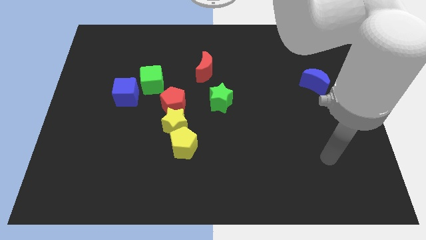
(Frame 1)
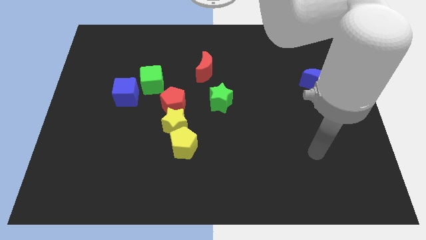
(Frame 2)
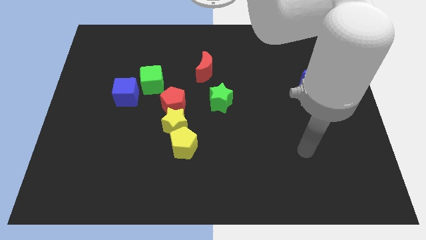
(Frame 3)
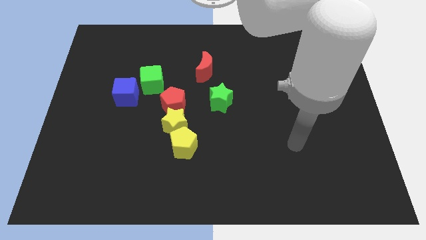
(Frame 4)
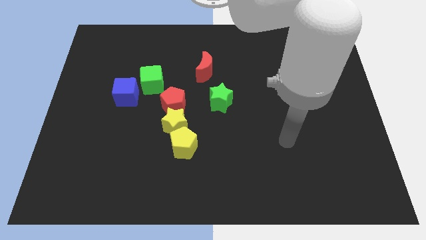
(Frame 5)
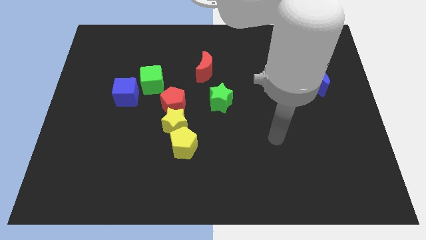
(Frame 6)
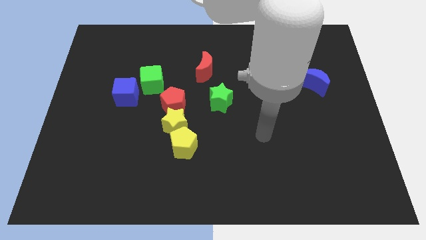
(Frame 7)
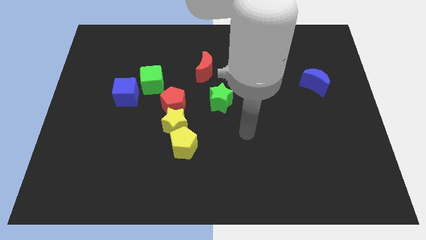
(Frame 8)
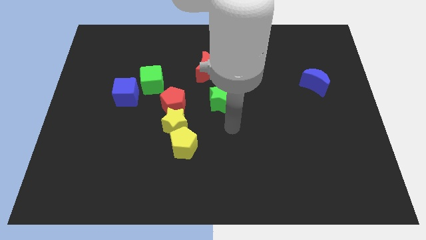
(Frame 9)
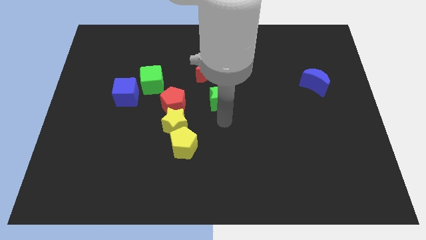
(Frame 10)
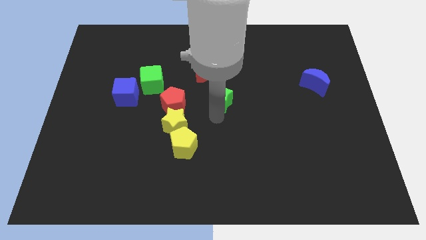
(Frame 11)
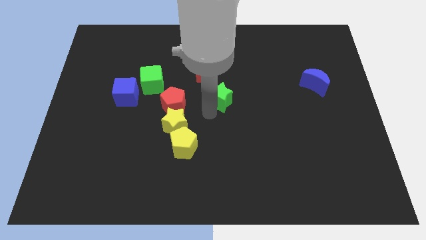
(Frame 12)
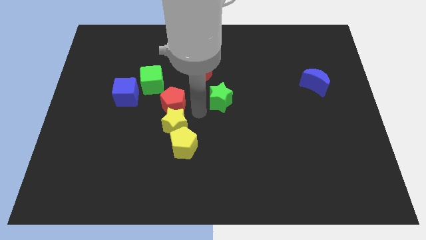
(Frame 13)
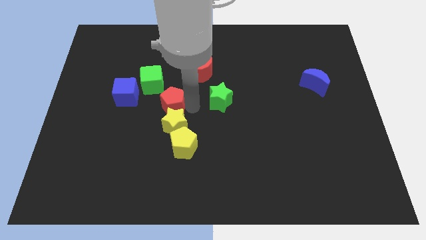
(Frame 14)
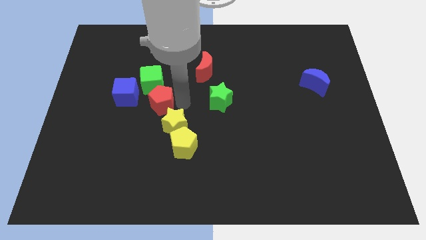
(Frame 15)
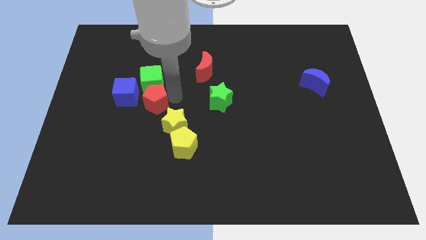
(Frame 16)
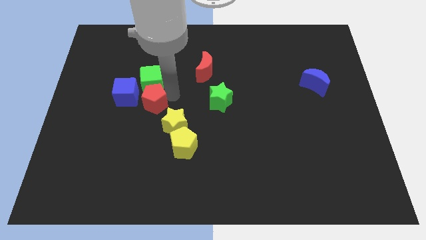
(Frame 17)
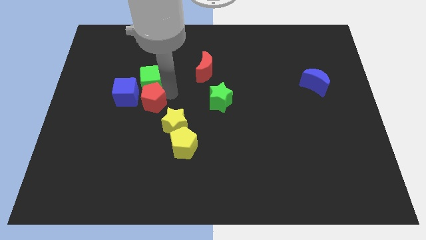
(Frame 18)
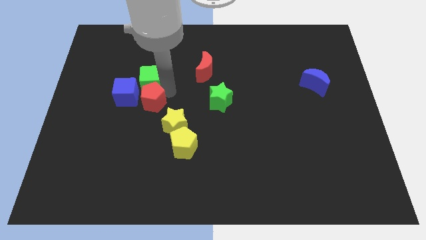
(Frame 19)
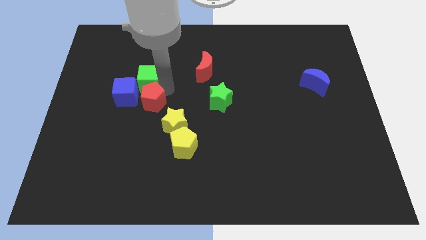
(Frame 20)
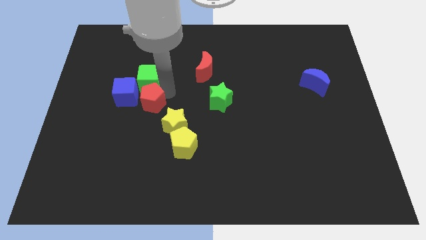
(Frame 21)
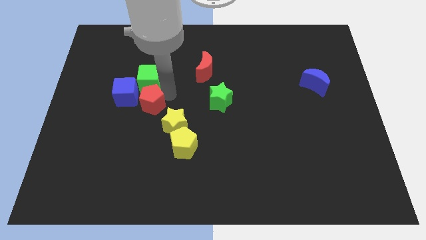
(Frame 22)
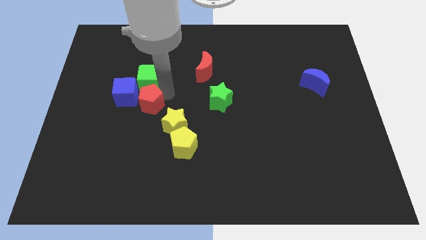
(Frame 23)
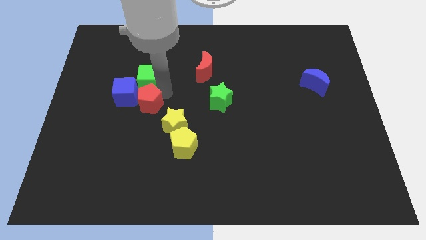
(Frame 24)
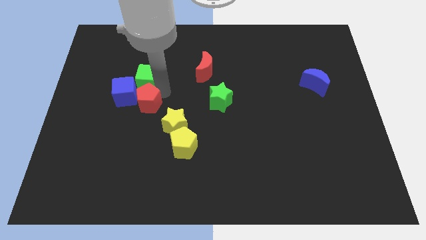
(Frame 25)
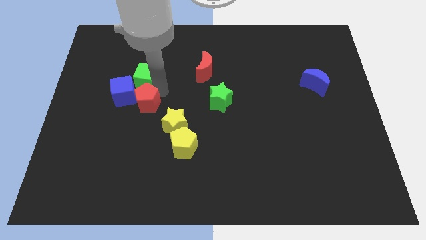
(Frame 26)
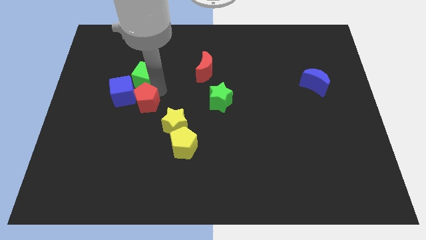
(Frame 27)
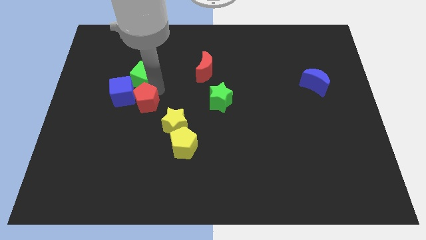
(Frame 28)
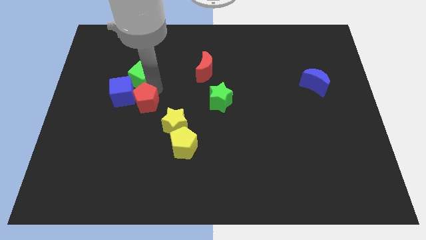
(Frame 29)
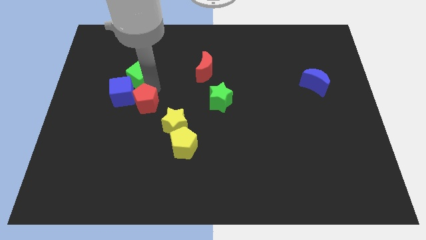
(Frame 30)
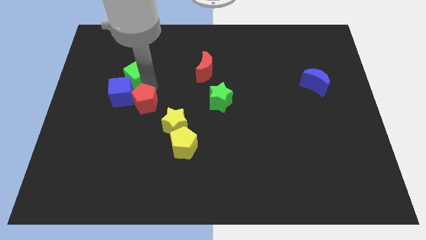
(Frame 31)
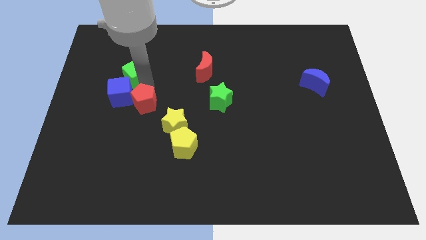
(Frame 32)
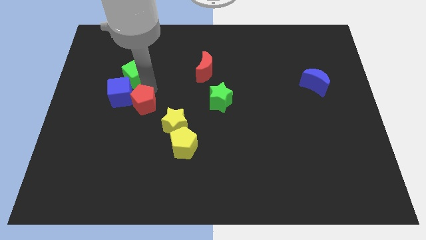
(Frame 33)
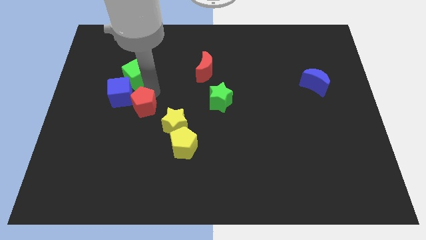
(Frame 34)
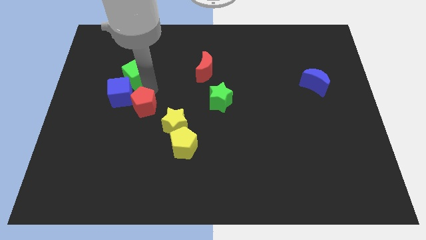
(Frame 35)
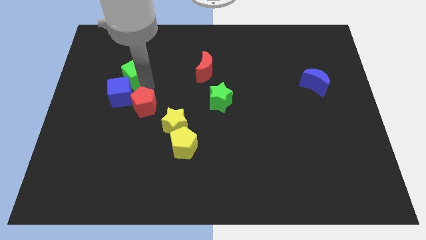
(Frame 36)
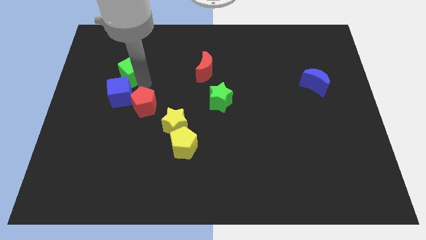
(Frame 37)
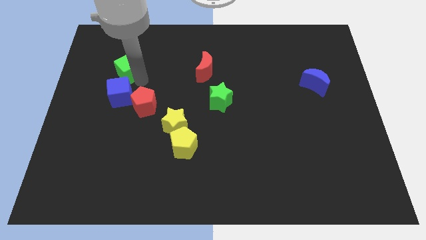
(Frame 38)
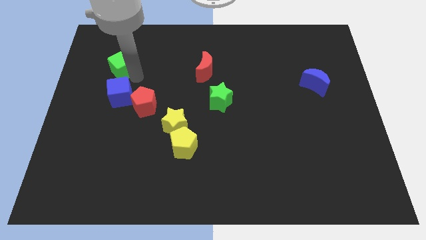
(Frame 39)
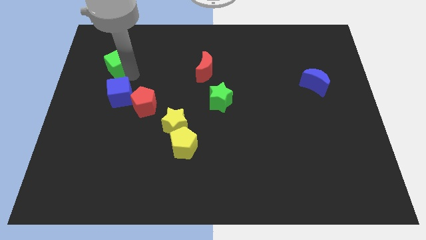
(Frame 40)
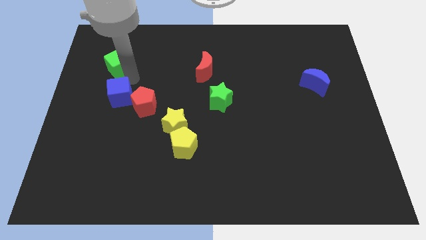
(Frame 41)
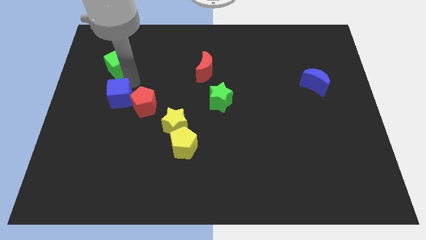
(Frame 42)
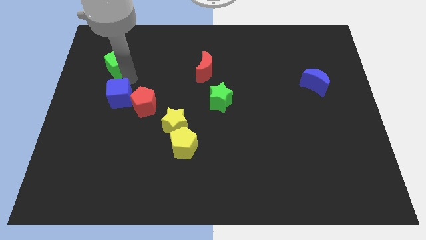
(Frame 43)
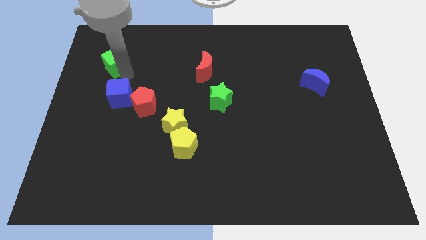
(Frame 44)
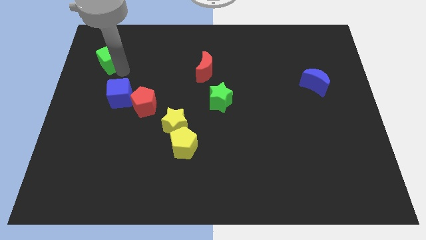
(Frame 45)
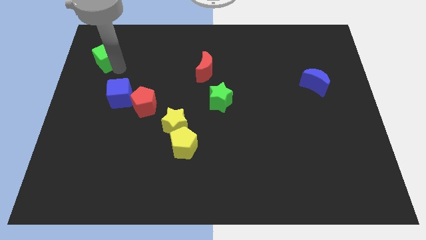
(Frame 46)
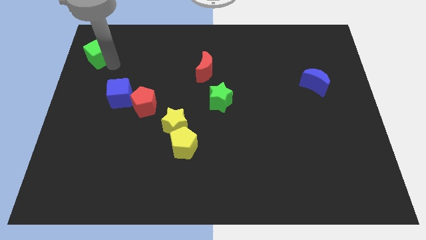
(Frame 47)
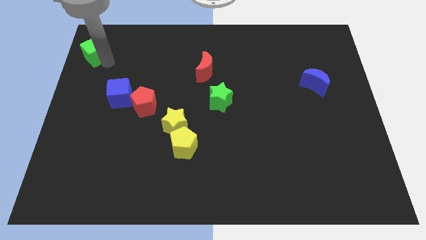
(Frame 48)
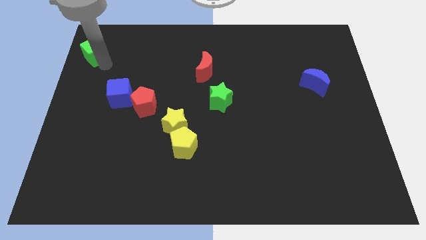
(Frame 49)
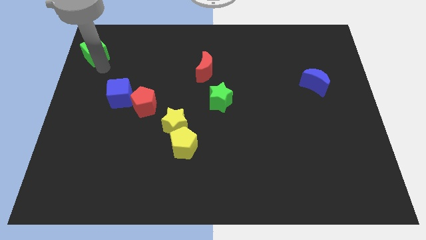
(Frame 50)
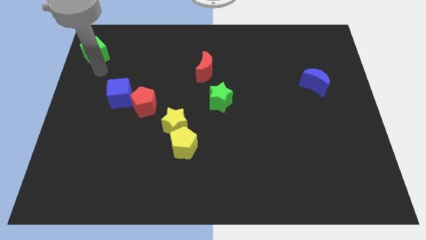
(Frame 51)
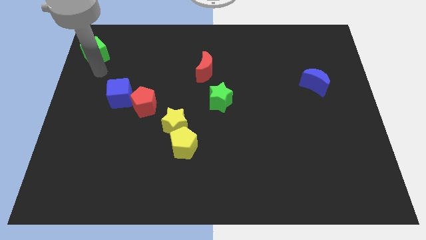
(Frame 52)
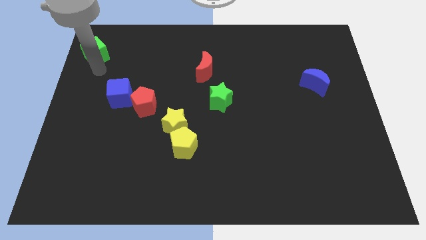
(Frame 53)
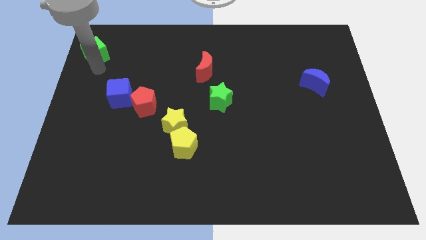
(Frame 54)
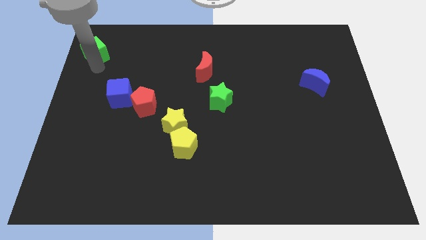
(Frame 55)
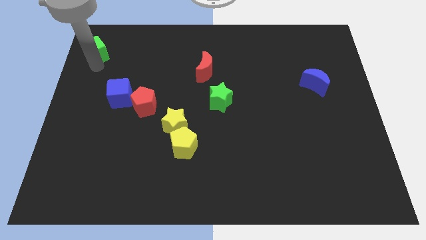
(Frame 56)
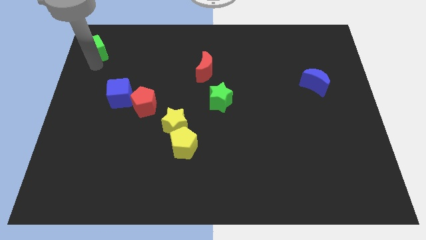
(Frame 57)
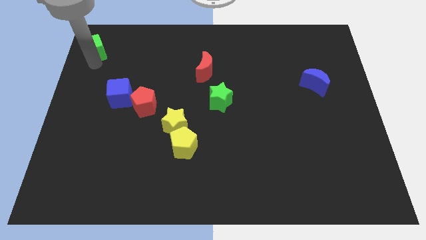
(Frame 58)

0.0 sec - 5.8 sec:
put the green cube to the upper left corner
